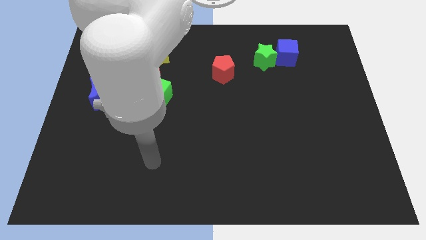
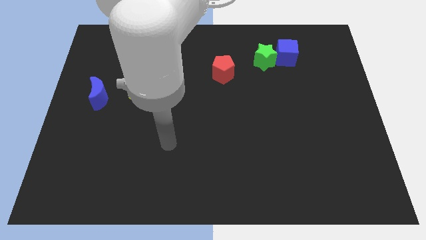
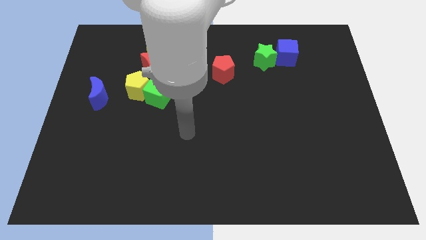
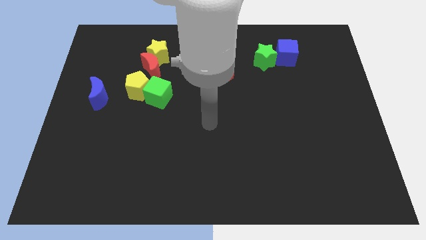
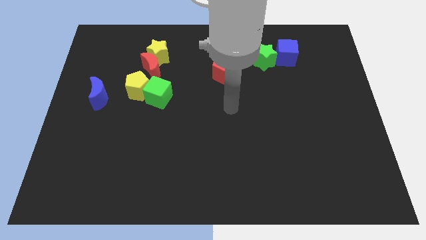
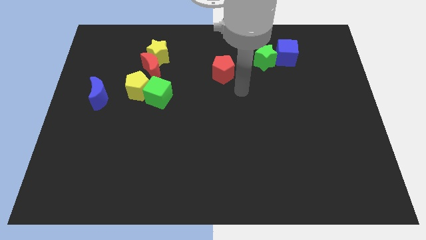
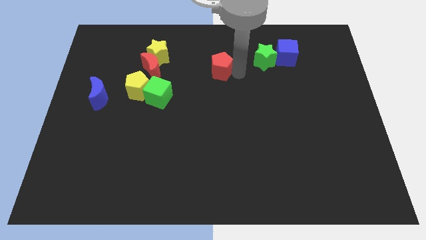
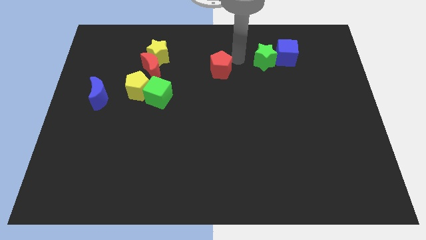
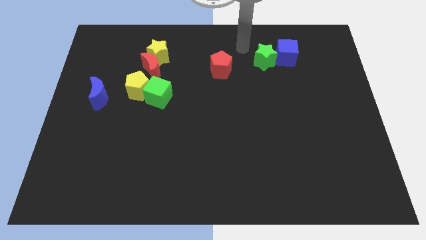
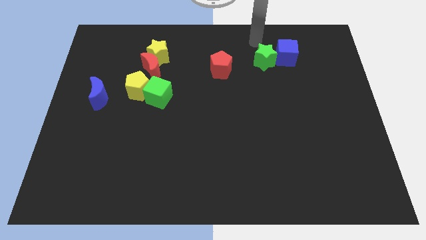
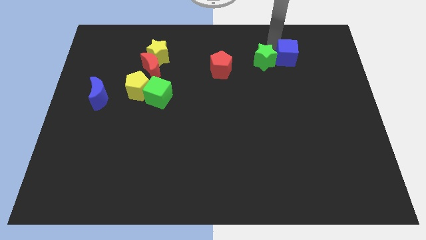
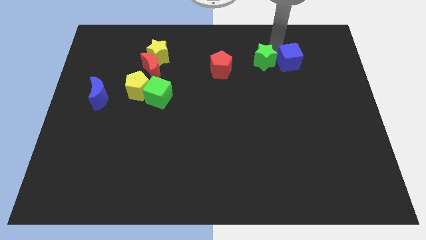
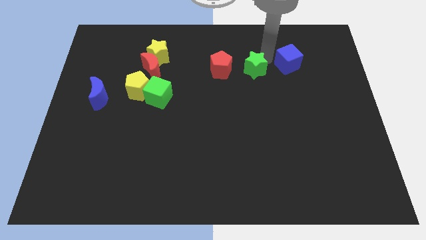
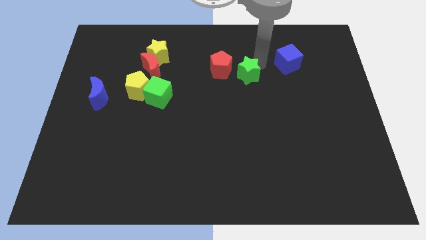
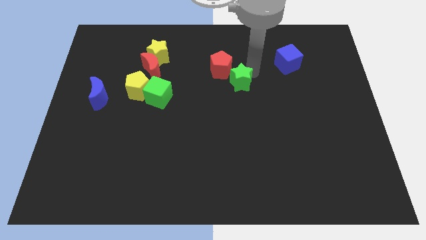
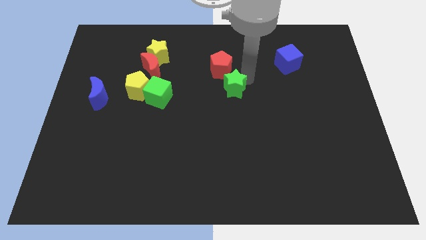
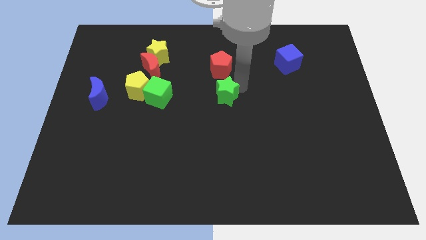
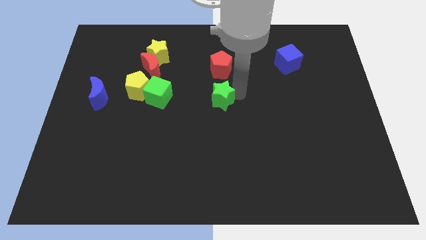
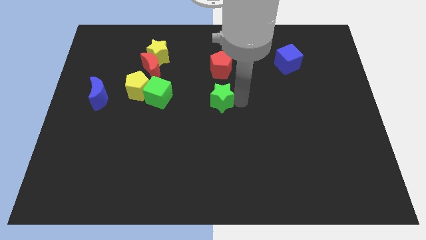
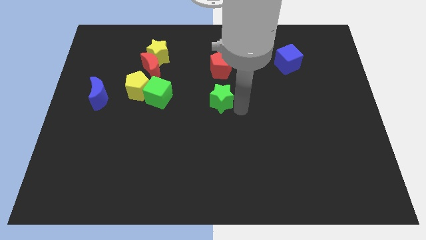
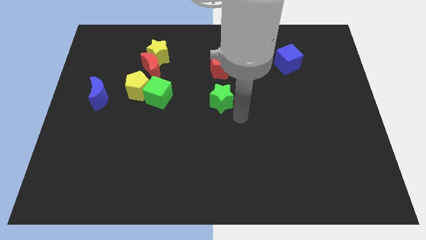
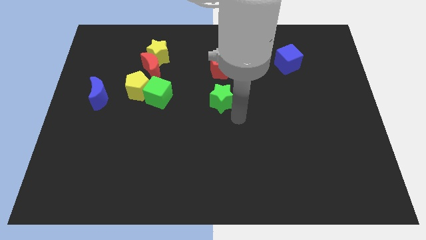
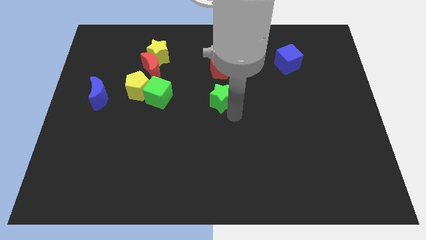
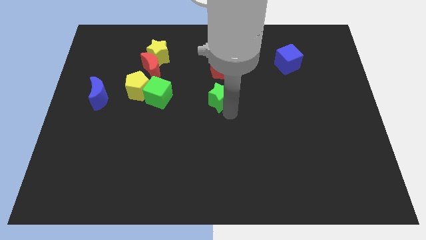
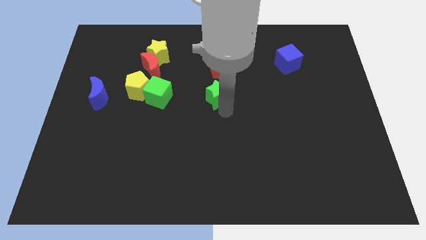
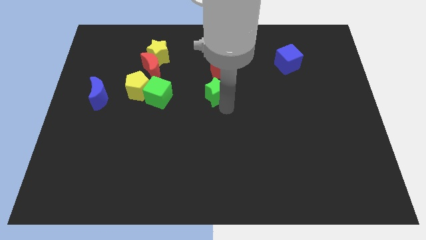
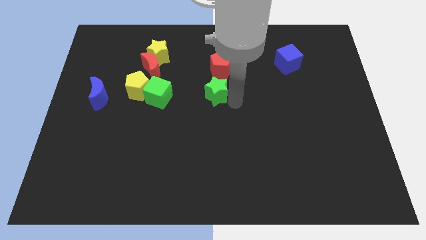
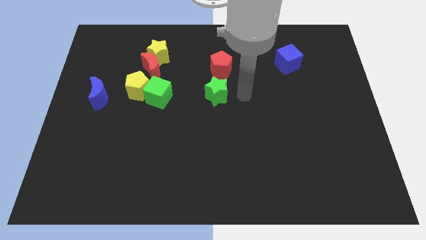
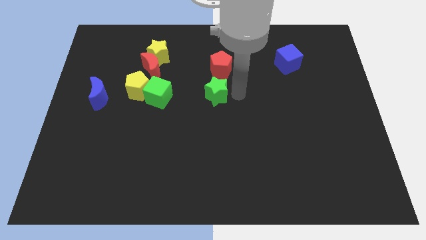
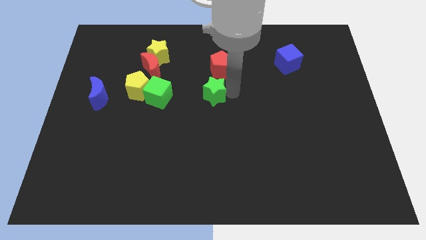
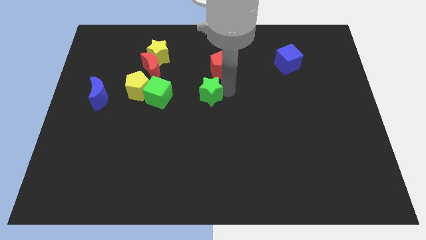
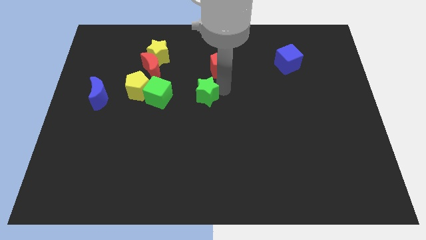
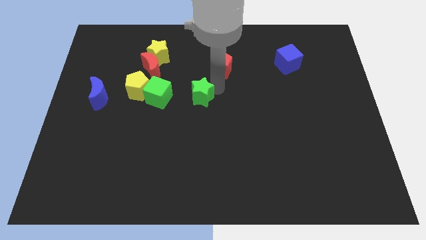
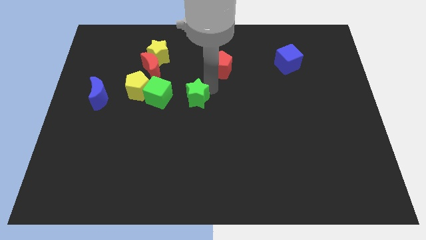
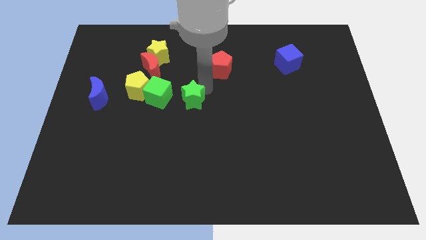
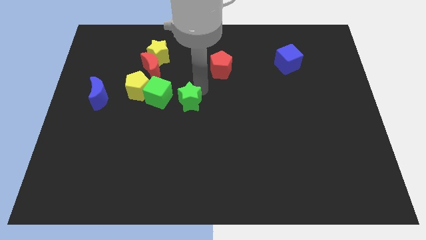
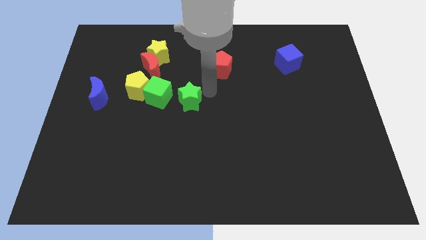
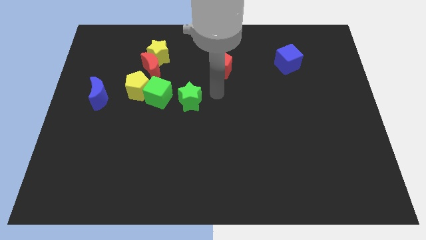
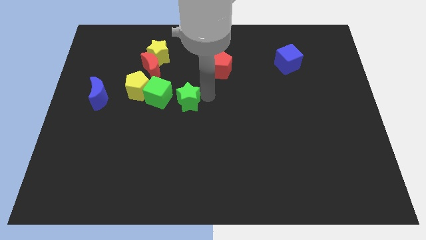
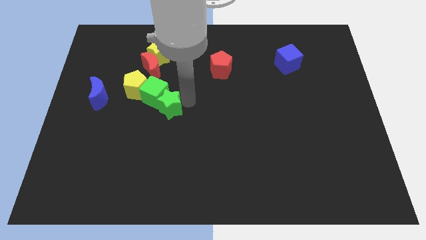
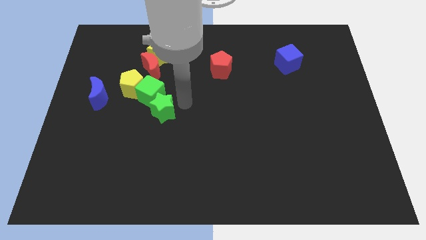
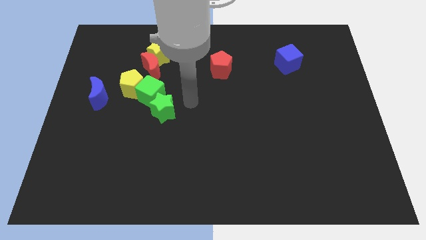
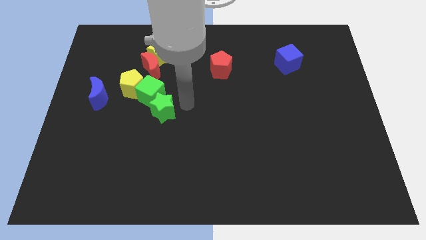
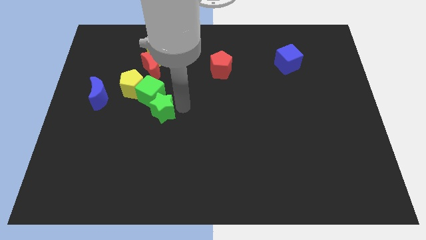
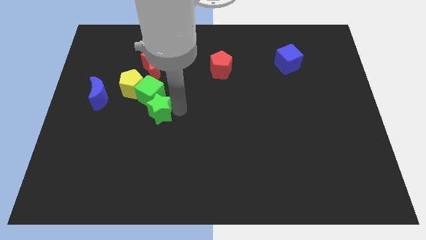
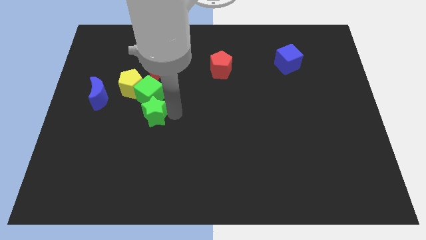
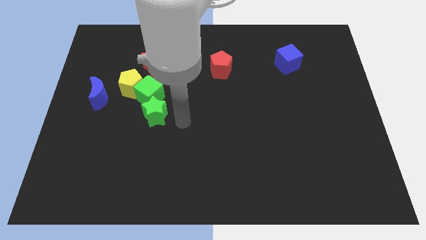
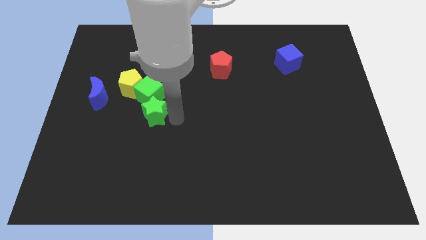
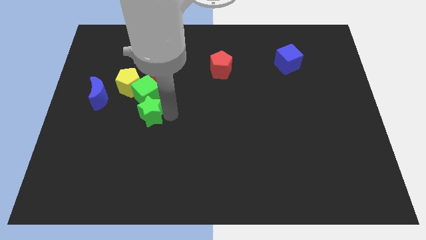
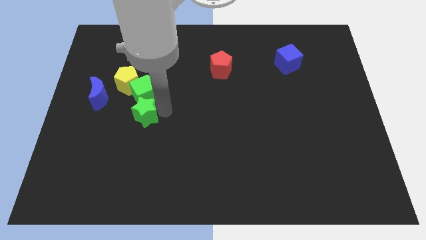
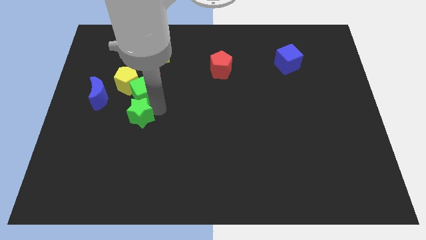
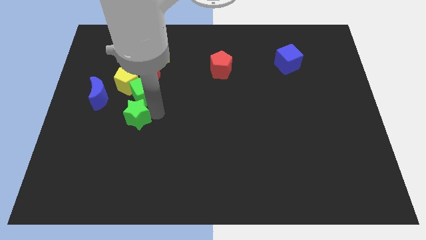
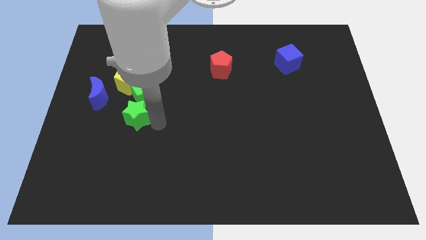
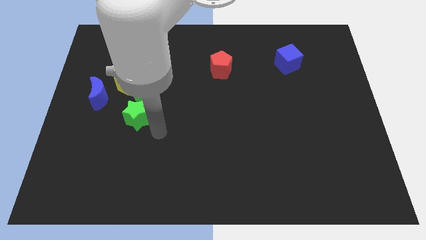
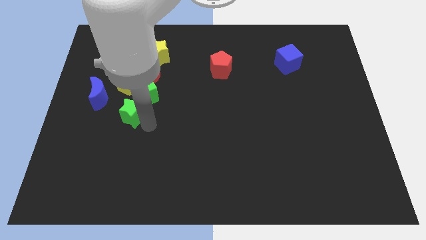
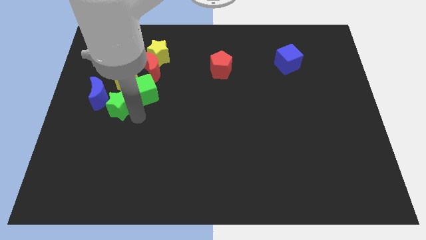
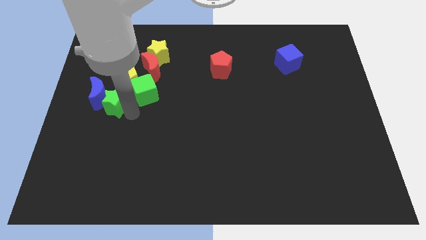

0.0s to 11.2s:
put the green star to the blue moon

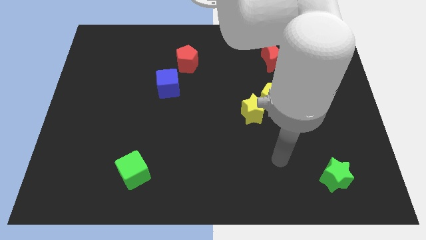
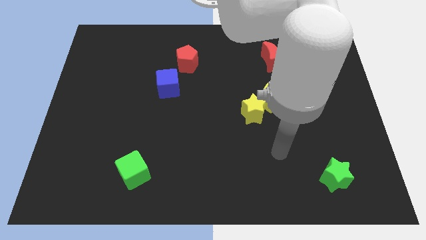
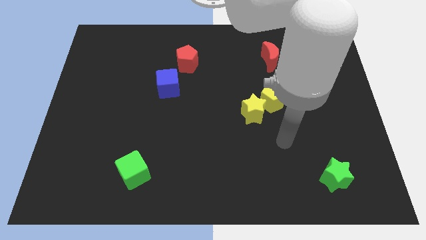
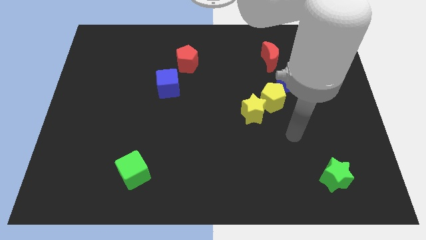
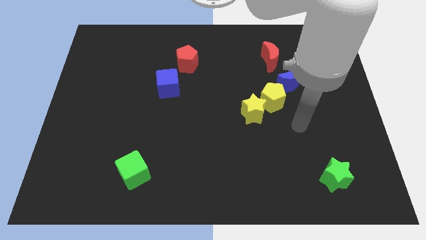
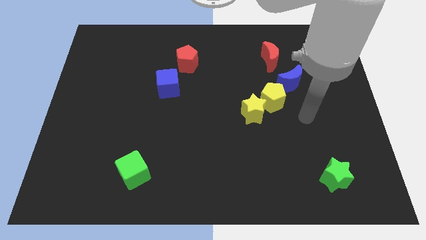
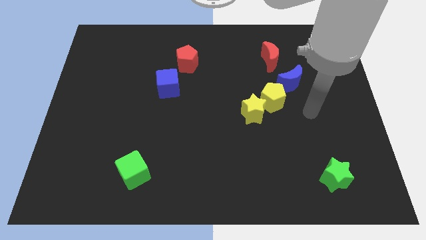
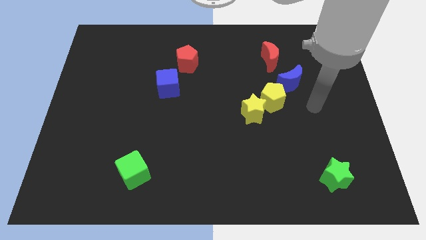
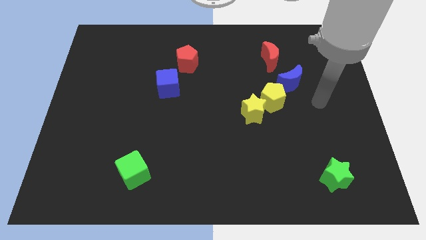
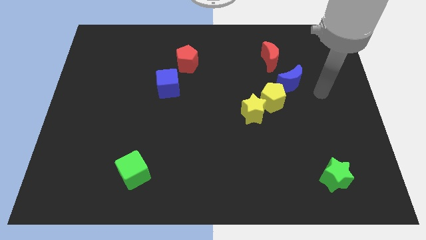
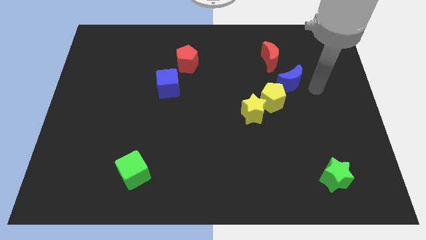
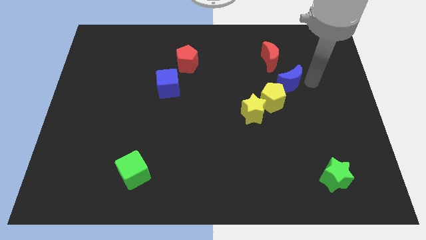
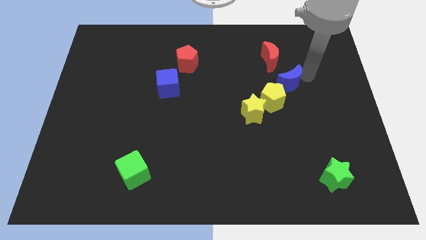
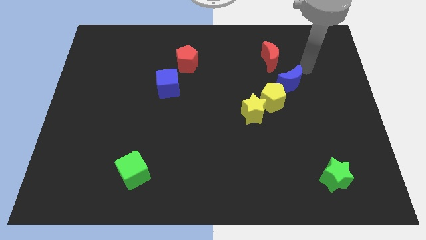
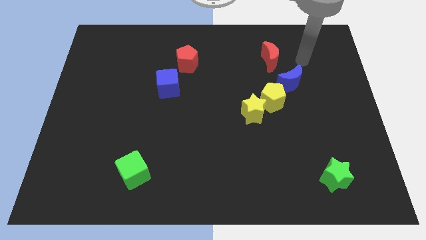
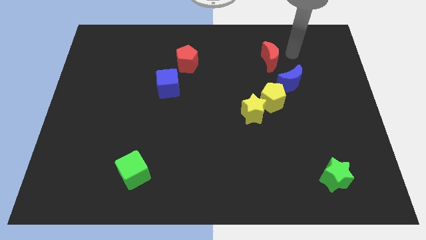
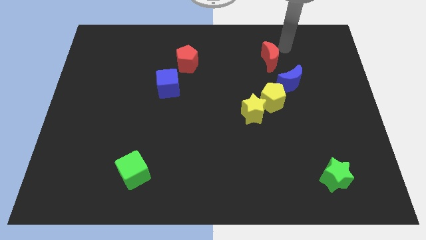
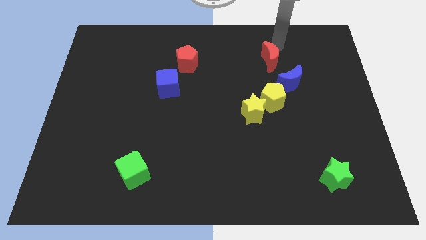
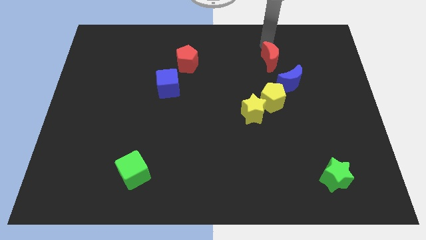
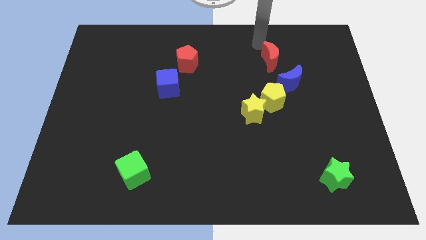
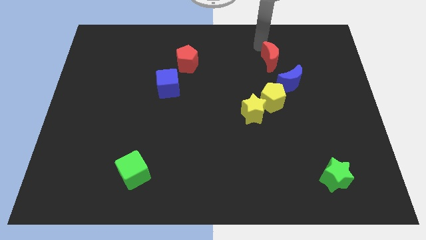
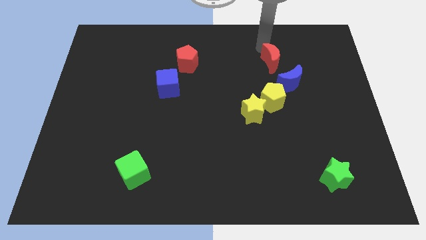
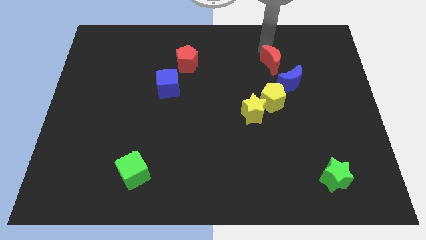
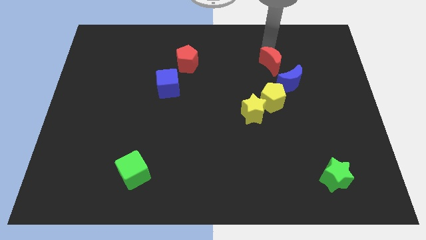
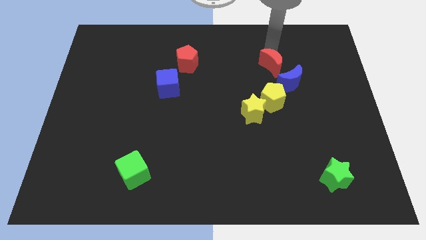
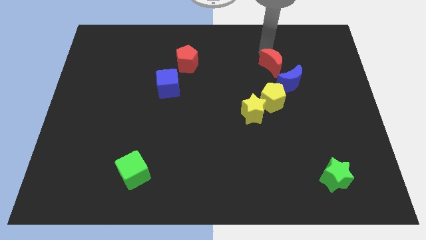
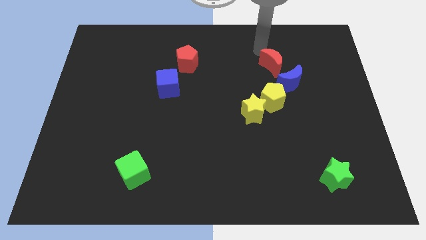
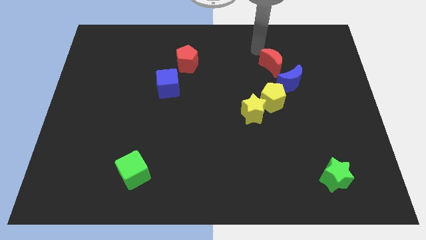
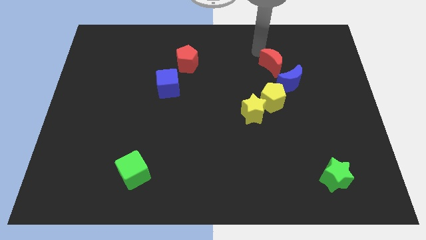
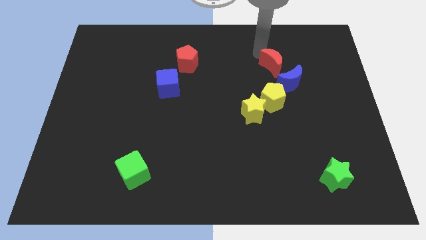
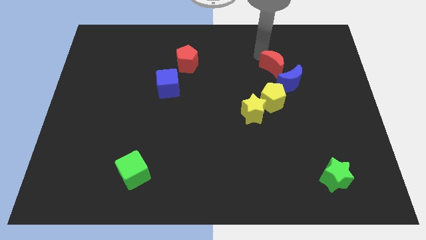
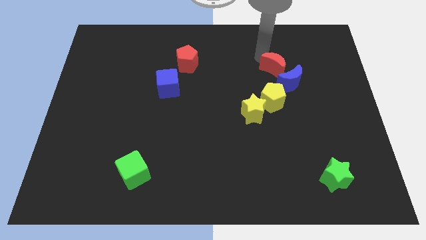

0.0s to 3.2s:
put the red moon next to the blue moon
